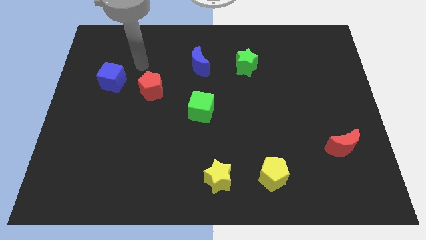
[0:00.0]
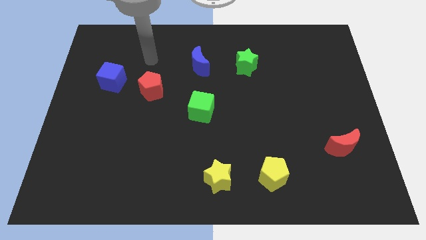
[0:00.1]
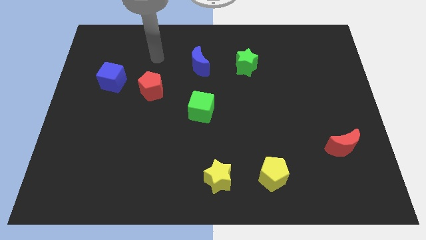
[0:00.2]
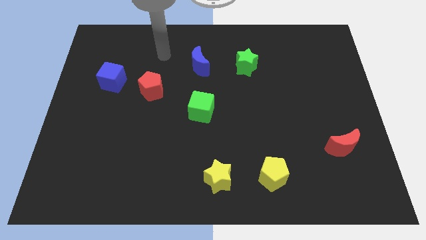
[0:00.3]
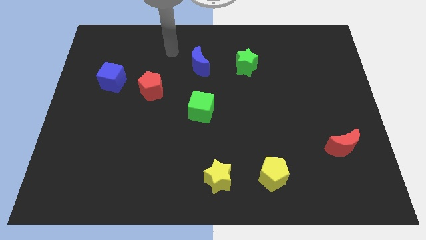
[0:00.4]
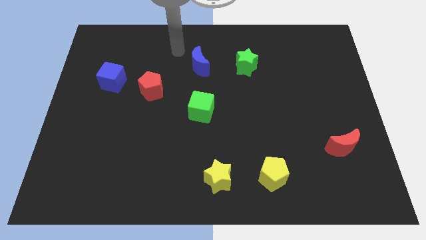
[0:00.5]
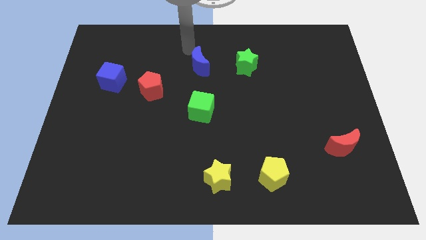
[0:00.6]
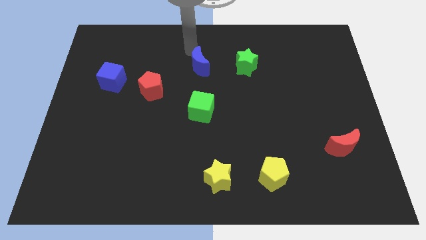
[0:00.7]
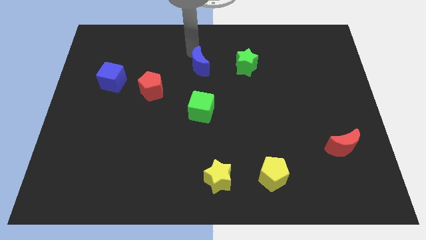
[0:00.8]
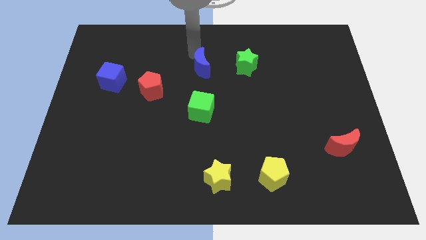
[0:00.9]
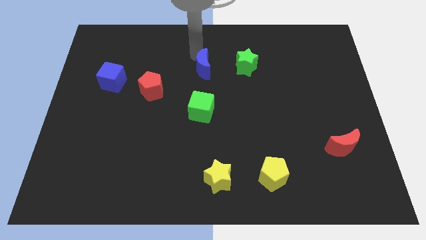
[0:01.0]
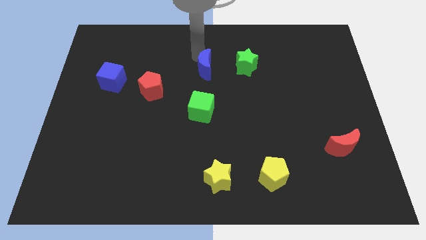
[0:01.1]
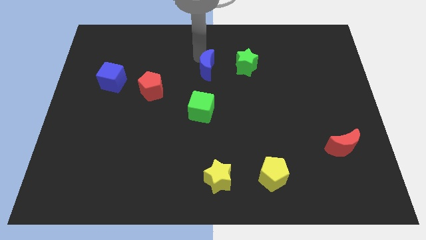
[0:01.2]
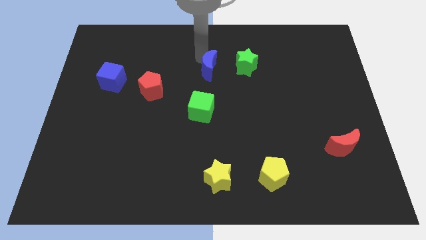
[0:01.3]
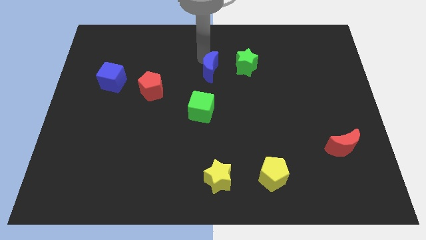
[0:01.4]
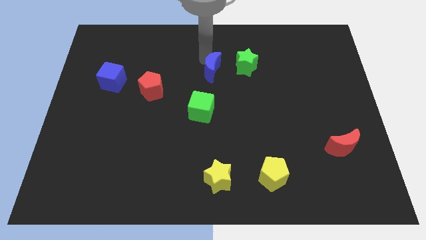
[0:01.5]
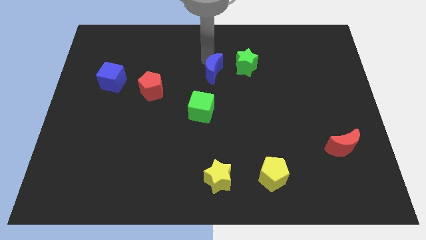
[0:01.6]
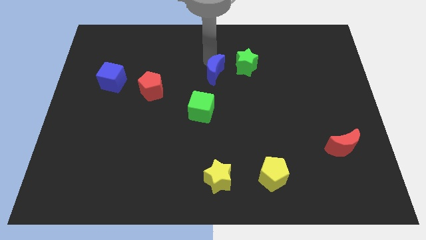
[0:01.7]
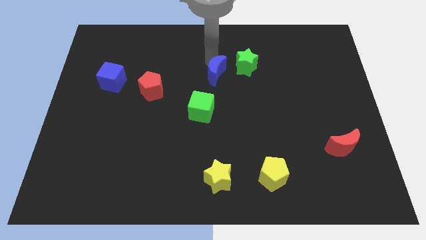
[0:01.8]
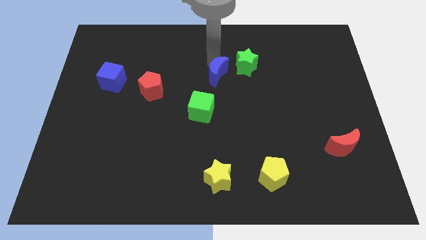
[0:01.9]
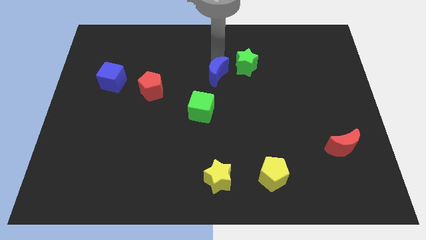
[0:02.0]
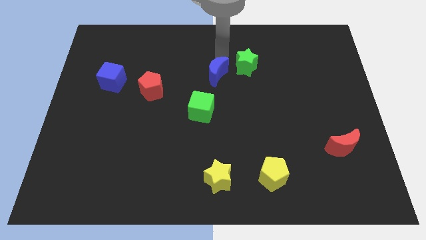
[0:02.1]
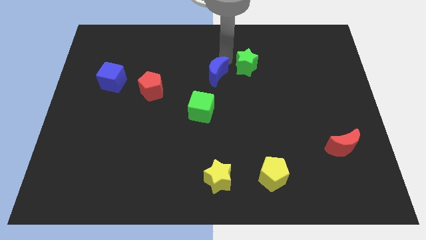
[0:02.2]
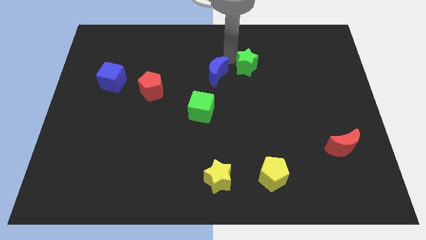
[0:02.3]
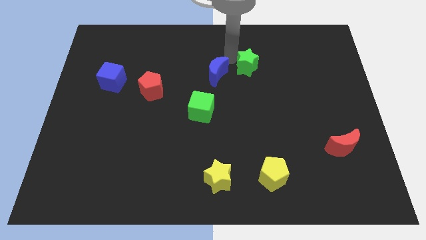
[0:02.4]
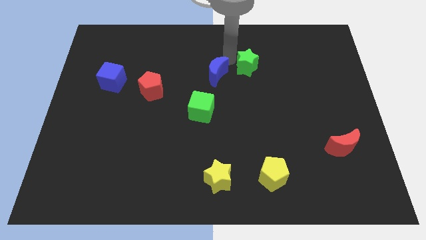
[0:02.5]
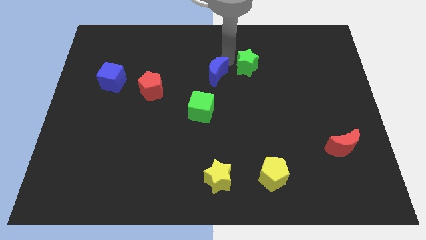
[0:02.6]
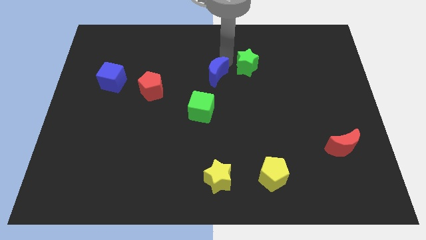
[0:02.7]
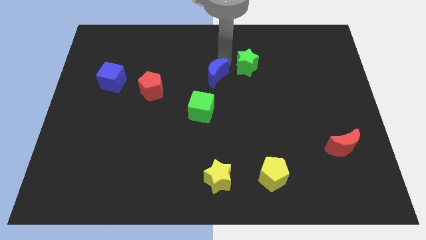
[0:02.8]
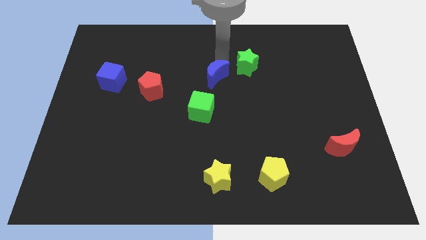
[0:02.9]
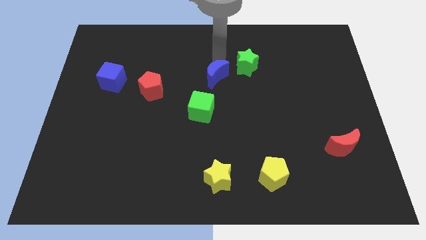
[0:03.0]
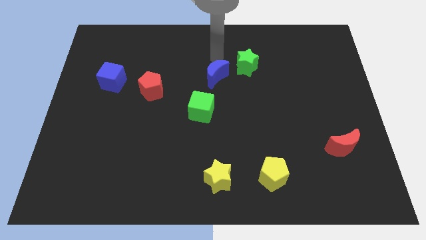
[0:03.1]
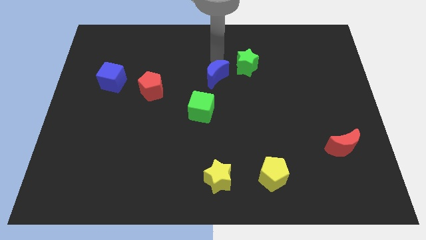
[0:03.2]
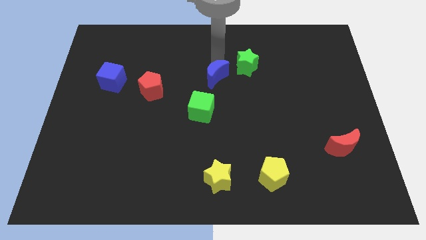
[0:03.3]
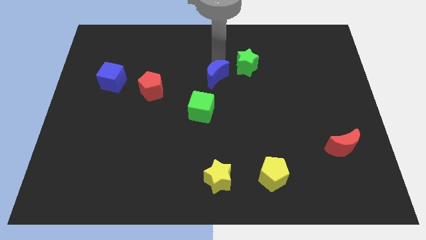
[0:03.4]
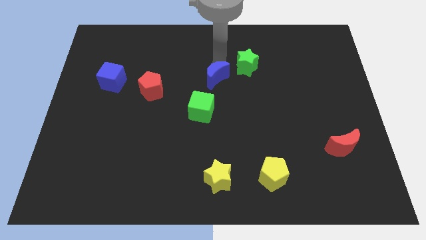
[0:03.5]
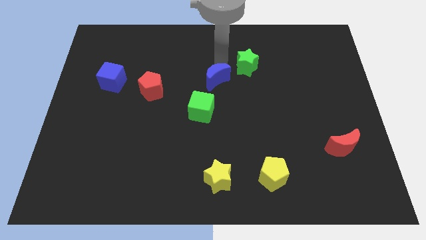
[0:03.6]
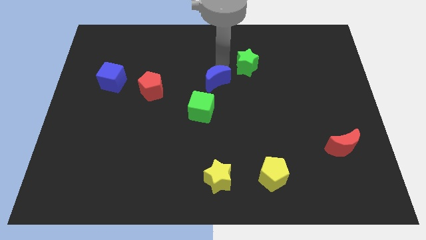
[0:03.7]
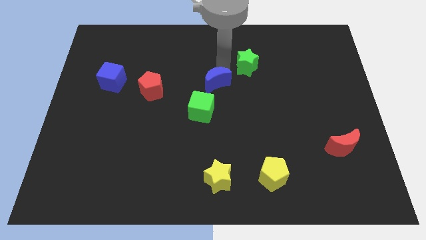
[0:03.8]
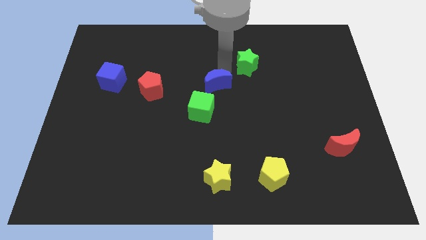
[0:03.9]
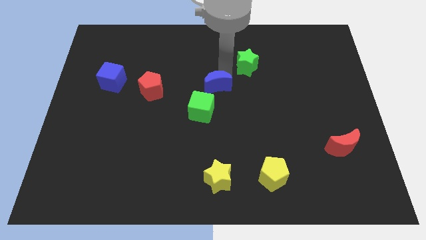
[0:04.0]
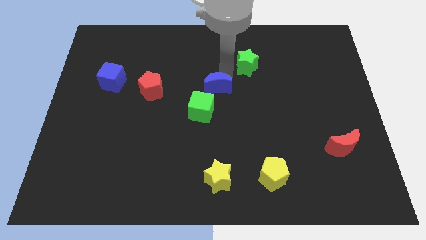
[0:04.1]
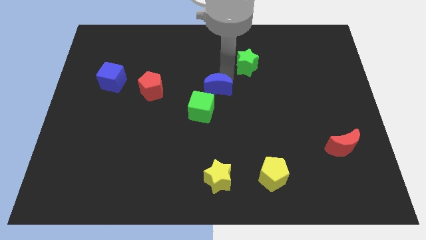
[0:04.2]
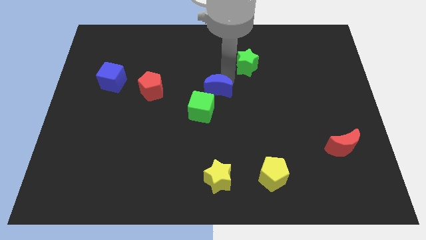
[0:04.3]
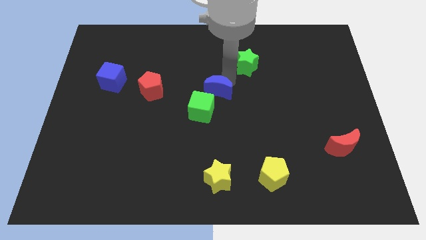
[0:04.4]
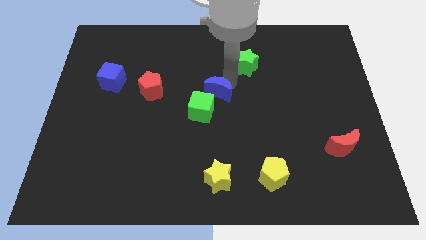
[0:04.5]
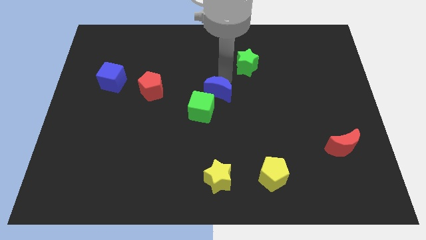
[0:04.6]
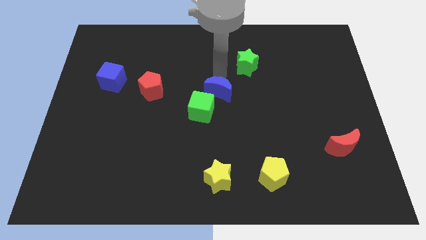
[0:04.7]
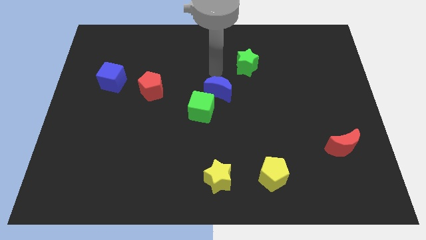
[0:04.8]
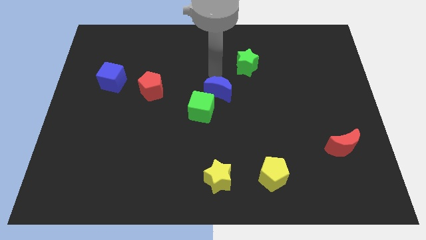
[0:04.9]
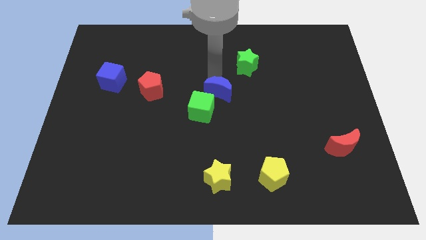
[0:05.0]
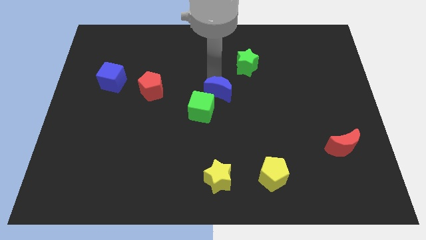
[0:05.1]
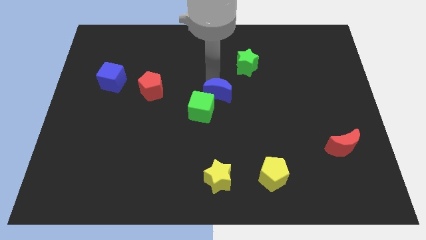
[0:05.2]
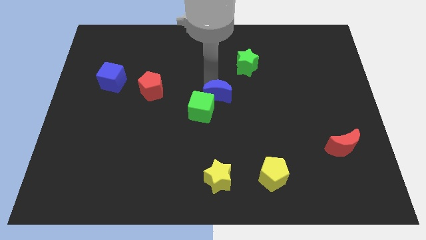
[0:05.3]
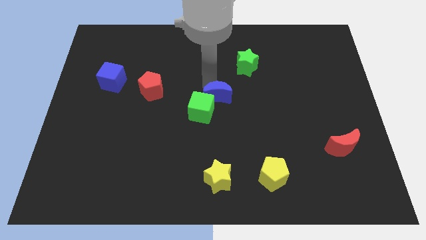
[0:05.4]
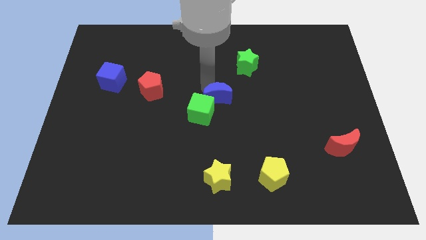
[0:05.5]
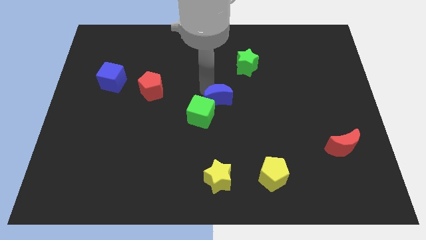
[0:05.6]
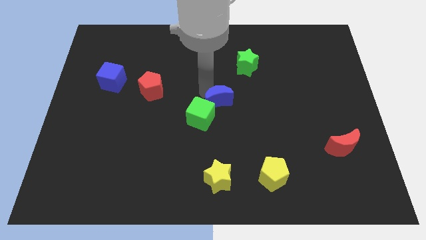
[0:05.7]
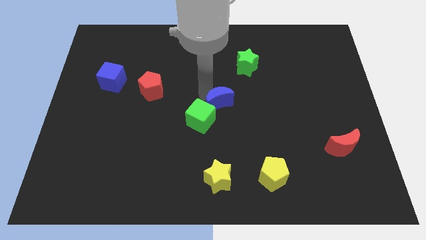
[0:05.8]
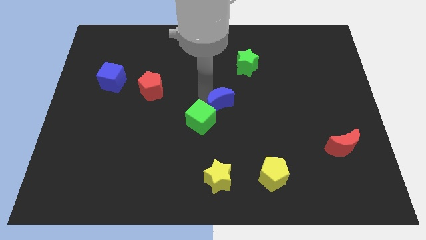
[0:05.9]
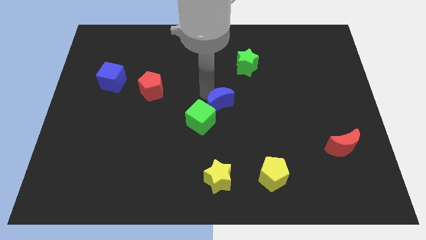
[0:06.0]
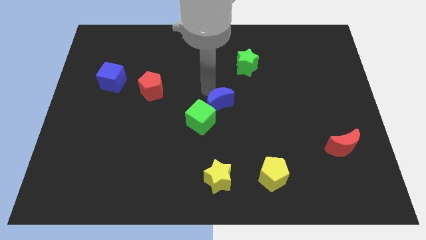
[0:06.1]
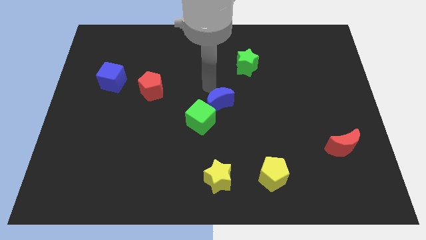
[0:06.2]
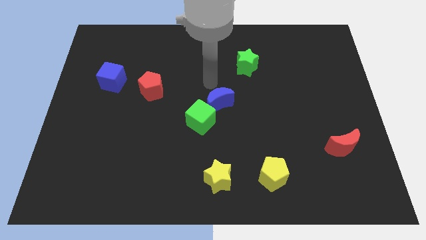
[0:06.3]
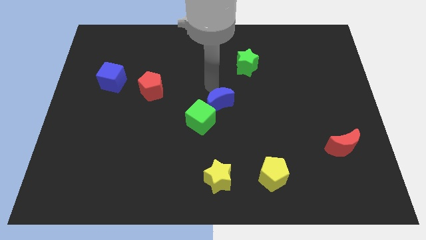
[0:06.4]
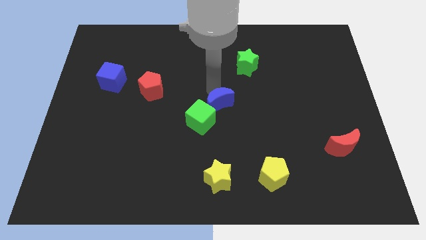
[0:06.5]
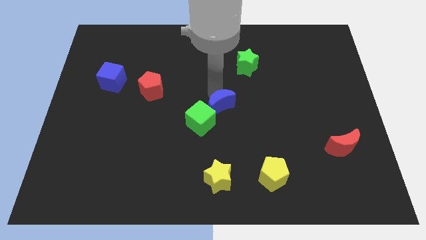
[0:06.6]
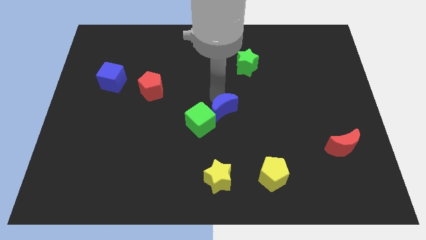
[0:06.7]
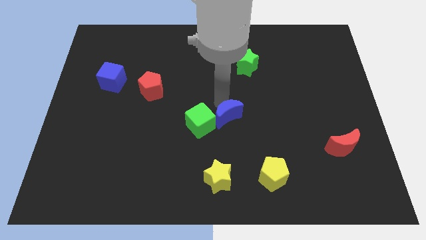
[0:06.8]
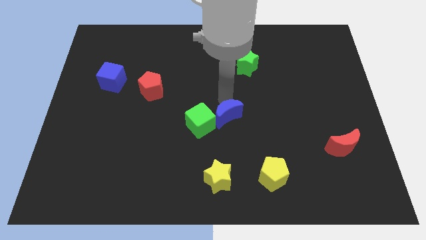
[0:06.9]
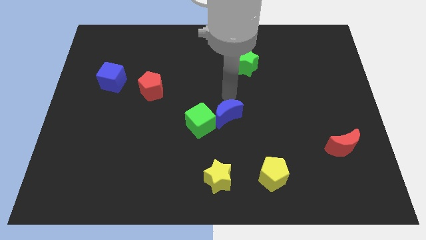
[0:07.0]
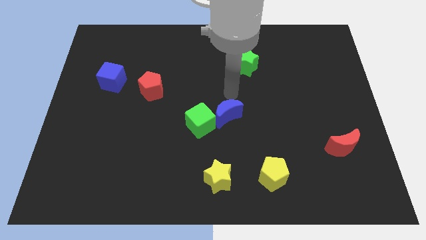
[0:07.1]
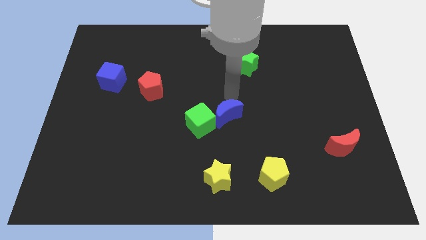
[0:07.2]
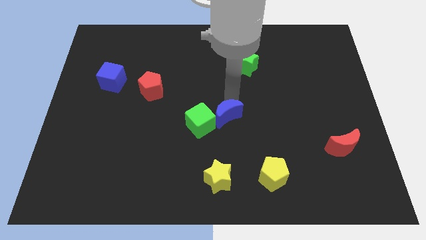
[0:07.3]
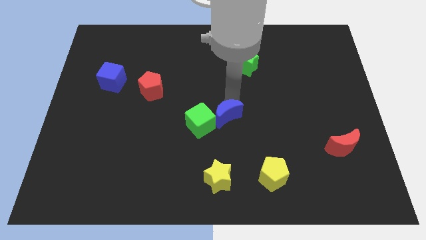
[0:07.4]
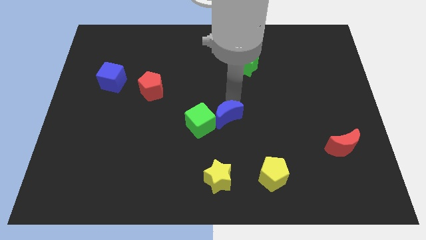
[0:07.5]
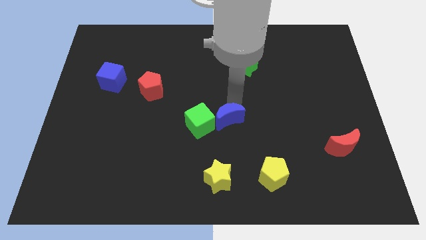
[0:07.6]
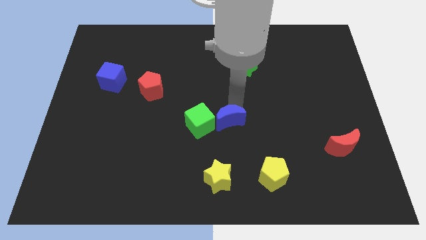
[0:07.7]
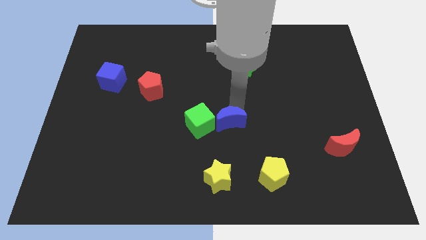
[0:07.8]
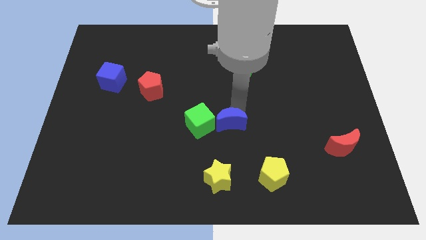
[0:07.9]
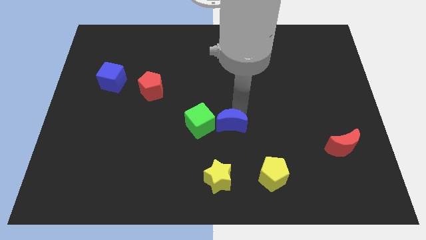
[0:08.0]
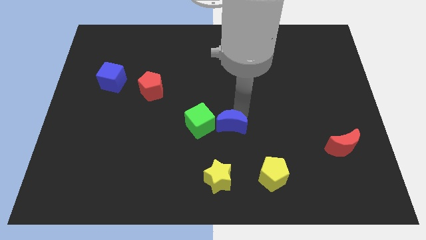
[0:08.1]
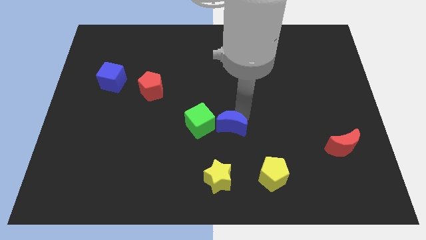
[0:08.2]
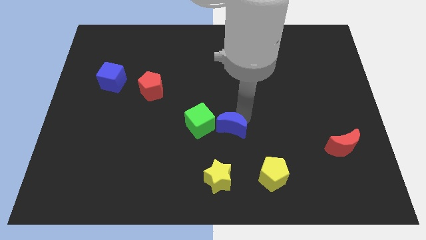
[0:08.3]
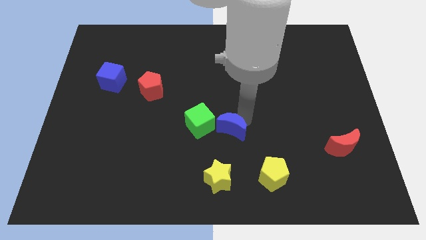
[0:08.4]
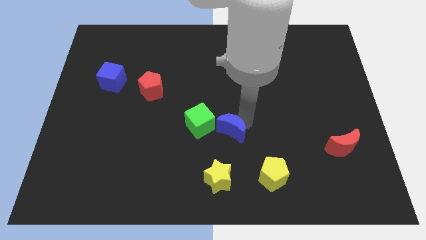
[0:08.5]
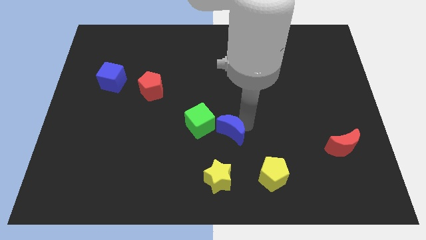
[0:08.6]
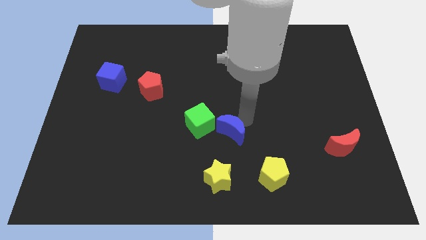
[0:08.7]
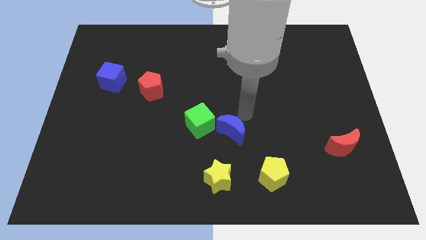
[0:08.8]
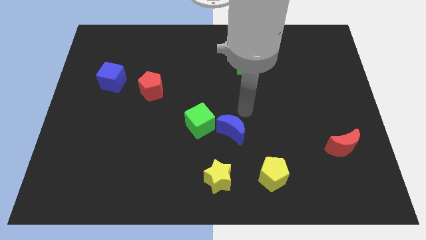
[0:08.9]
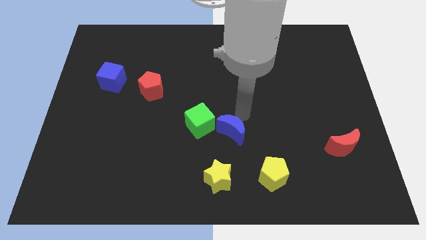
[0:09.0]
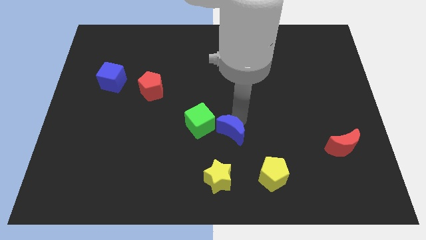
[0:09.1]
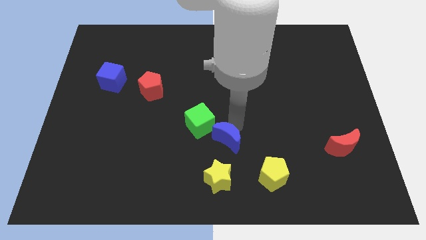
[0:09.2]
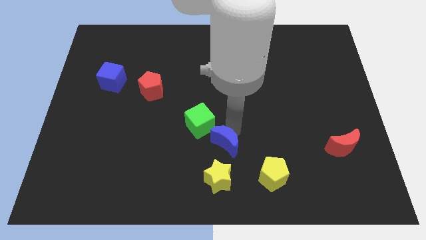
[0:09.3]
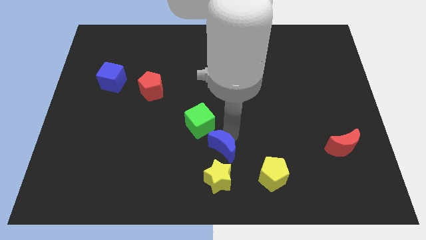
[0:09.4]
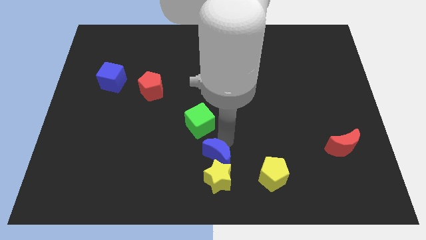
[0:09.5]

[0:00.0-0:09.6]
put the blue moon next to the yellow star
